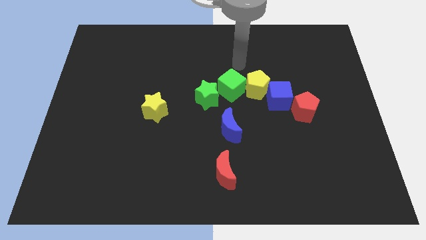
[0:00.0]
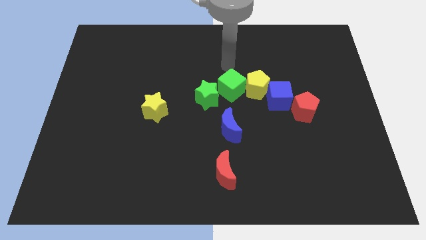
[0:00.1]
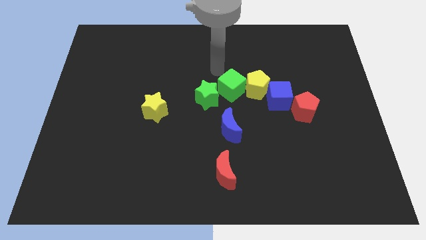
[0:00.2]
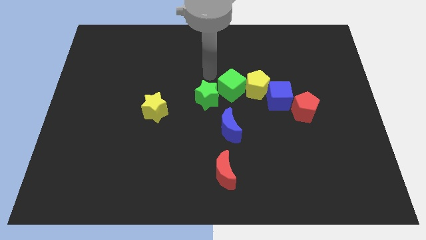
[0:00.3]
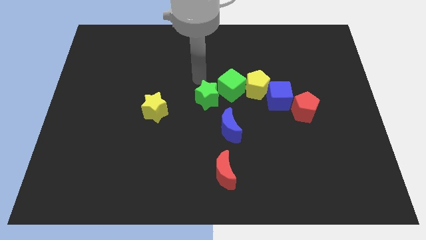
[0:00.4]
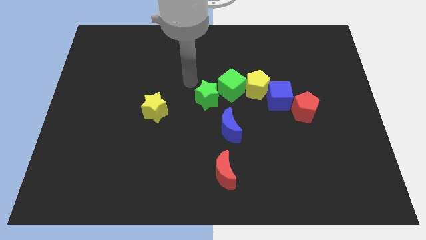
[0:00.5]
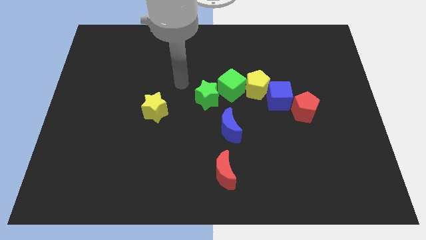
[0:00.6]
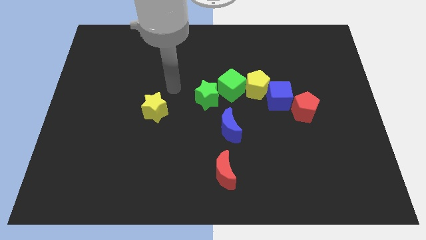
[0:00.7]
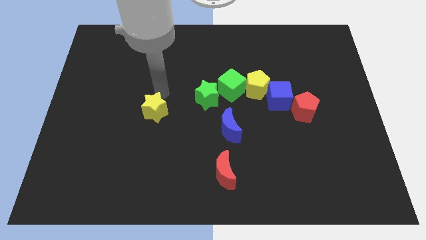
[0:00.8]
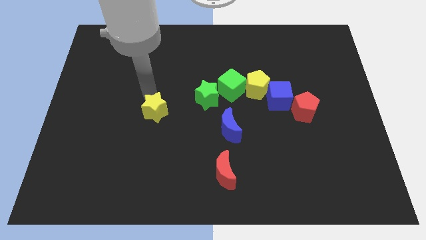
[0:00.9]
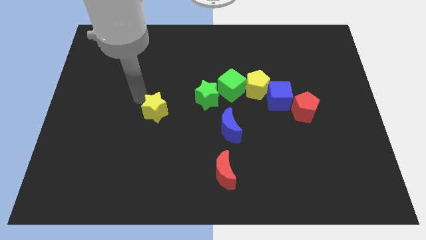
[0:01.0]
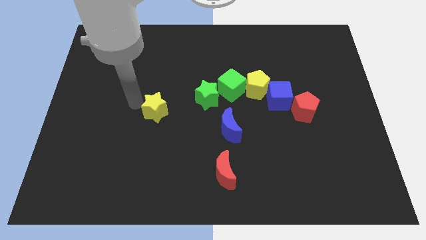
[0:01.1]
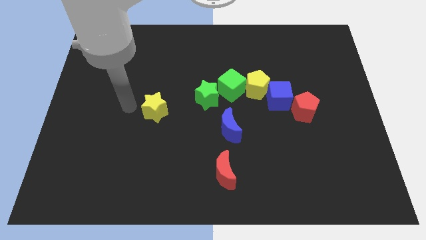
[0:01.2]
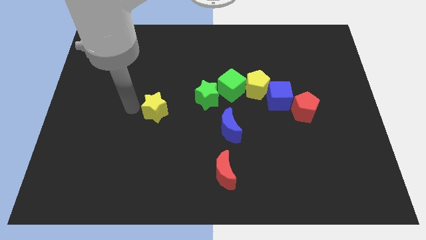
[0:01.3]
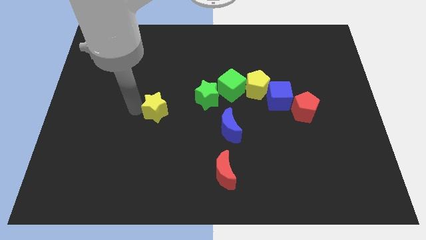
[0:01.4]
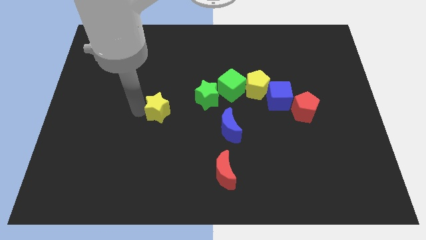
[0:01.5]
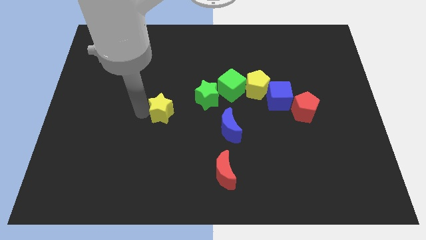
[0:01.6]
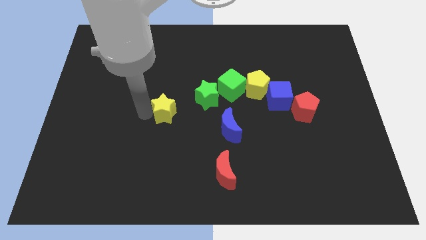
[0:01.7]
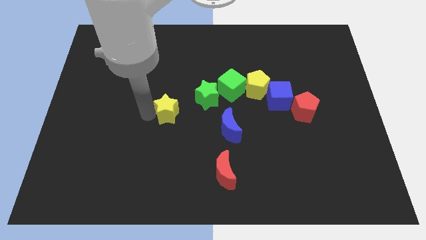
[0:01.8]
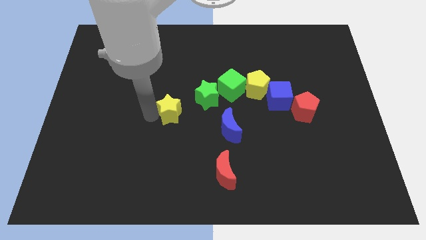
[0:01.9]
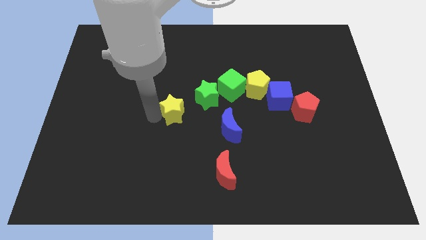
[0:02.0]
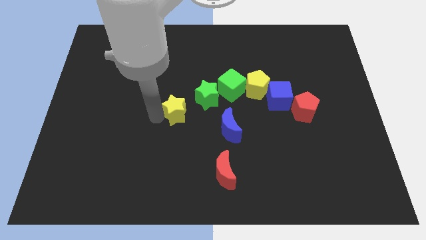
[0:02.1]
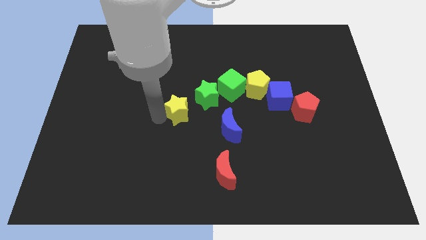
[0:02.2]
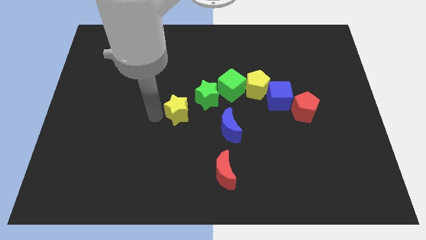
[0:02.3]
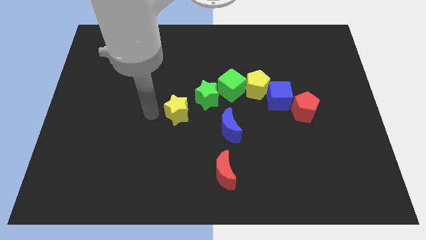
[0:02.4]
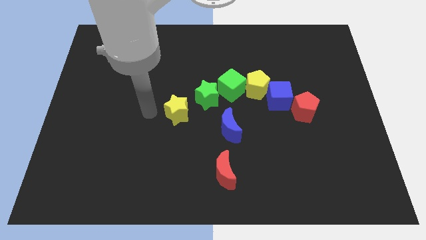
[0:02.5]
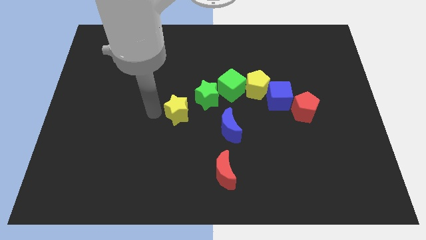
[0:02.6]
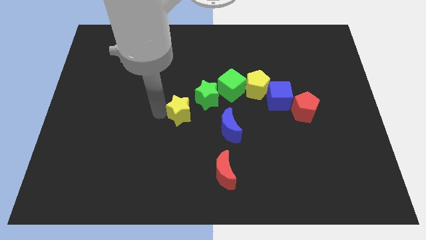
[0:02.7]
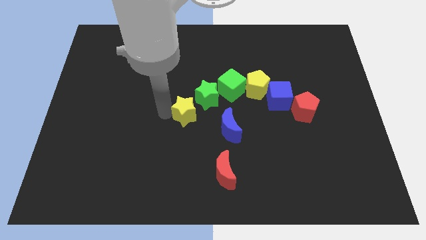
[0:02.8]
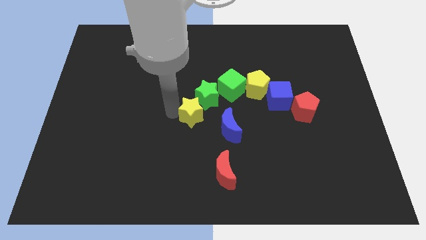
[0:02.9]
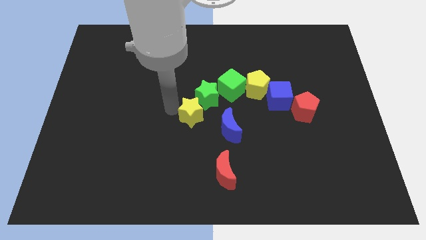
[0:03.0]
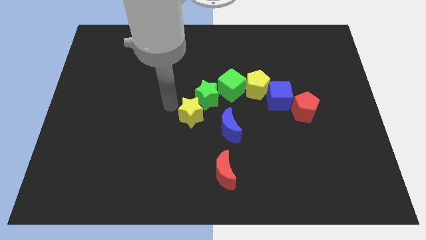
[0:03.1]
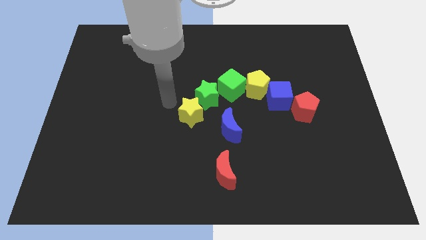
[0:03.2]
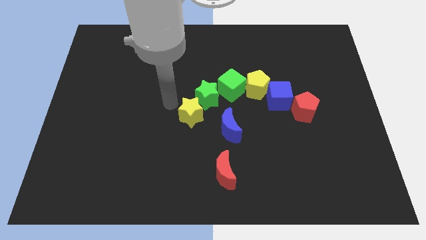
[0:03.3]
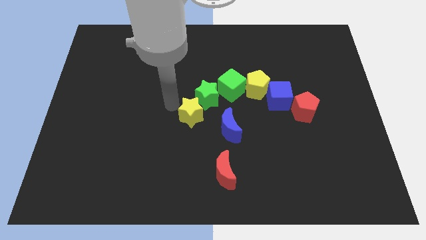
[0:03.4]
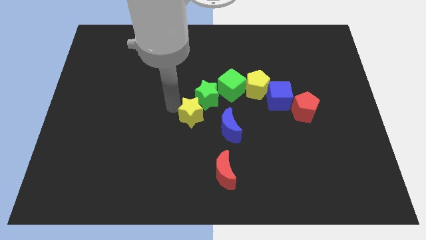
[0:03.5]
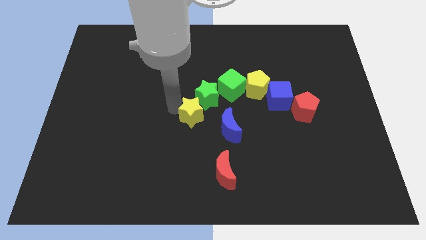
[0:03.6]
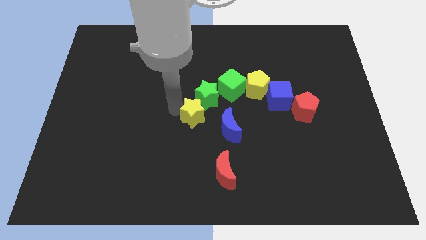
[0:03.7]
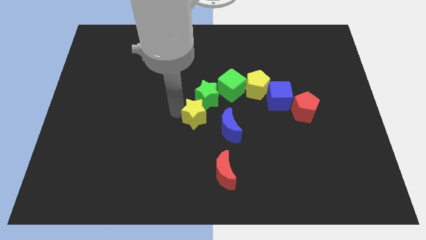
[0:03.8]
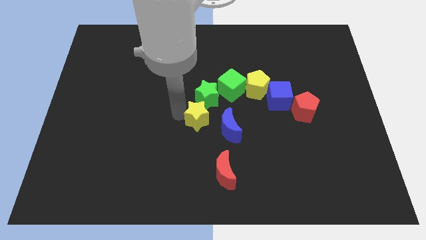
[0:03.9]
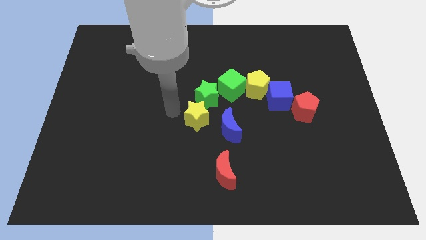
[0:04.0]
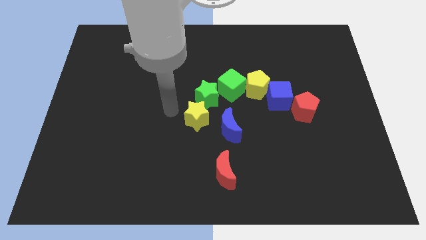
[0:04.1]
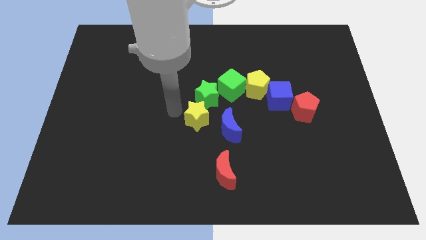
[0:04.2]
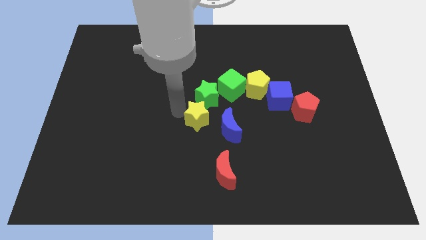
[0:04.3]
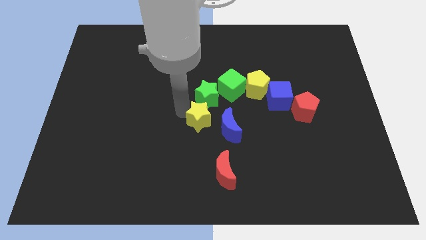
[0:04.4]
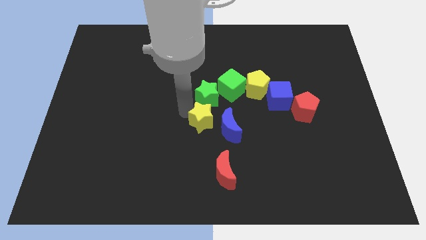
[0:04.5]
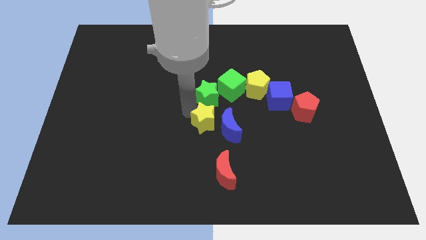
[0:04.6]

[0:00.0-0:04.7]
move the yellow star to the blue moon

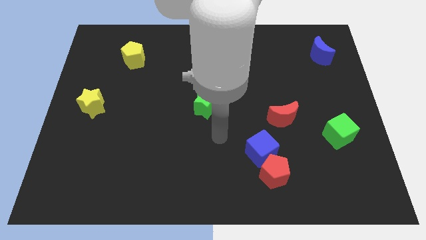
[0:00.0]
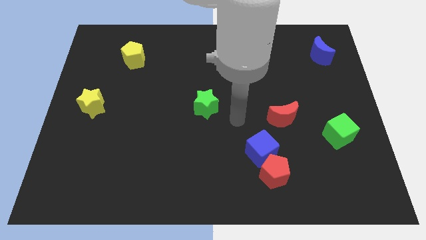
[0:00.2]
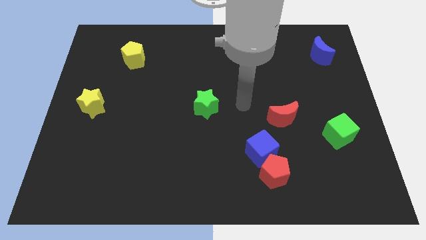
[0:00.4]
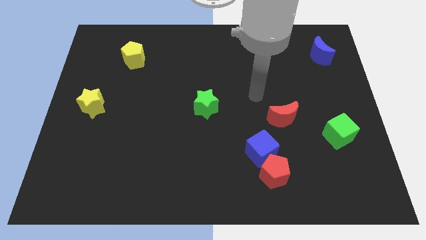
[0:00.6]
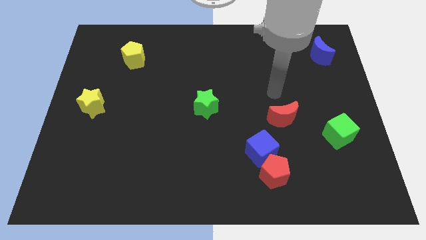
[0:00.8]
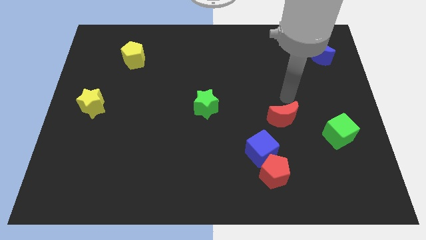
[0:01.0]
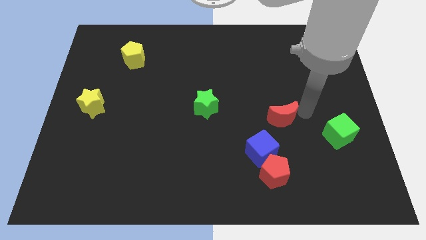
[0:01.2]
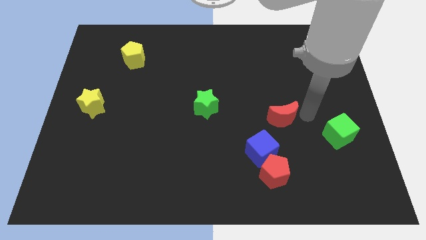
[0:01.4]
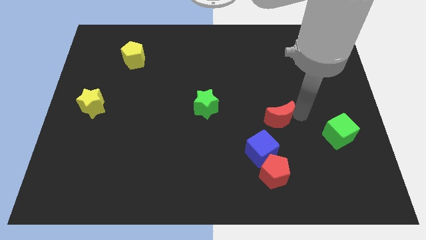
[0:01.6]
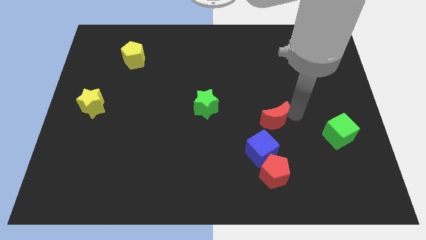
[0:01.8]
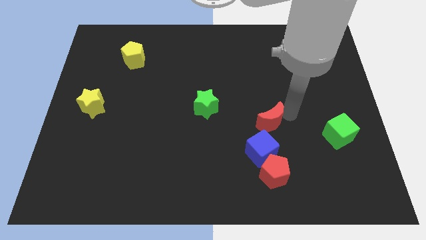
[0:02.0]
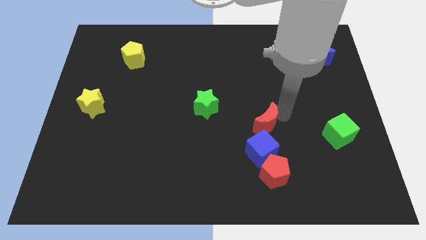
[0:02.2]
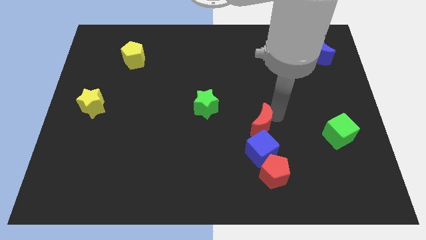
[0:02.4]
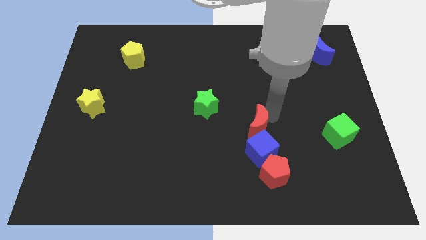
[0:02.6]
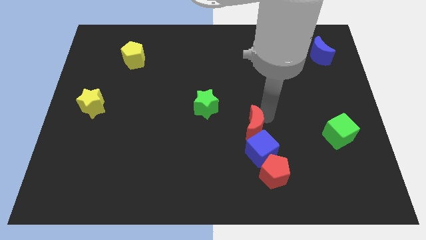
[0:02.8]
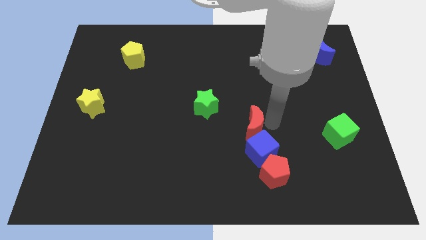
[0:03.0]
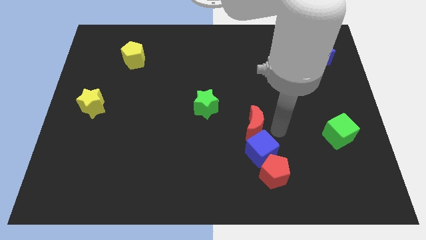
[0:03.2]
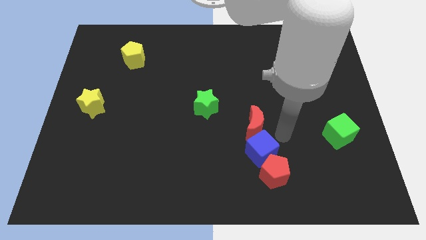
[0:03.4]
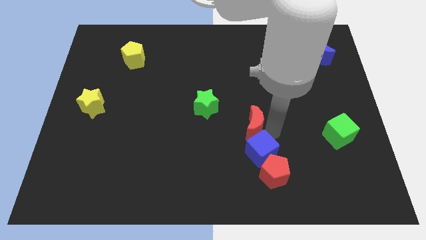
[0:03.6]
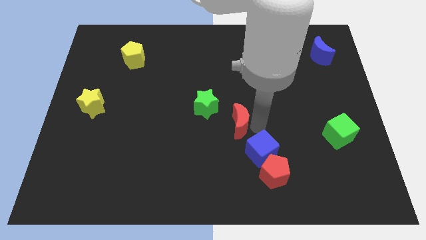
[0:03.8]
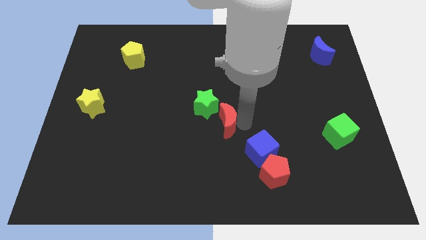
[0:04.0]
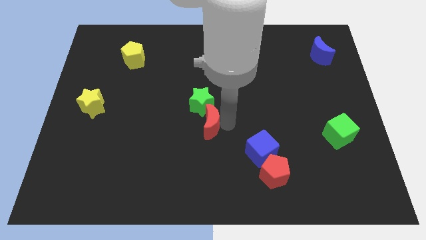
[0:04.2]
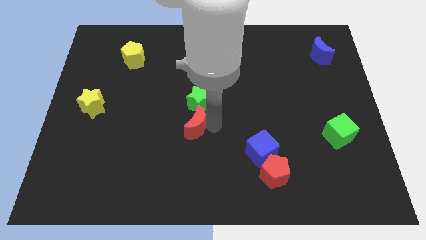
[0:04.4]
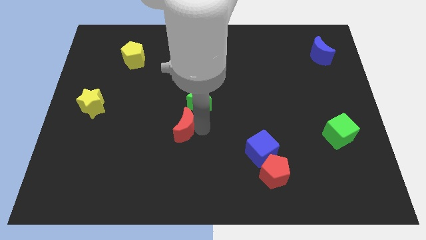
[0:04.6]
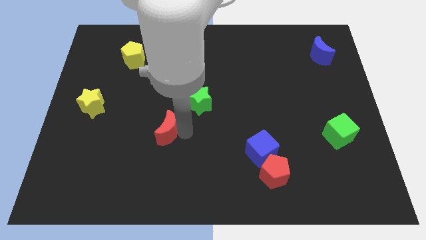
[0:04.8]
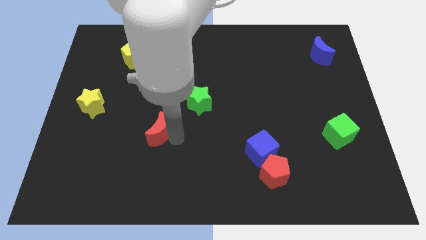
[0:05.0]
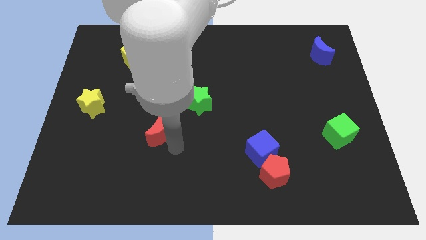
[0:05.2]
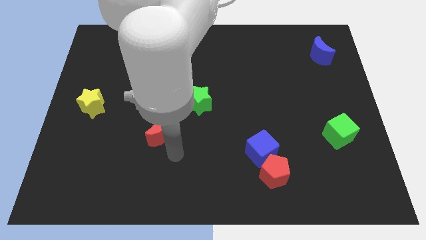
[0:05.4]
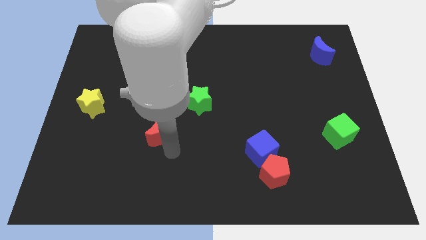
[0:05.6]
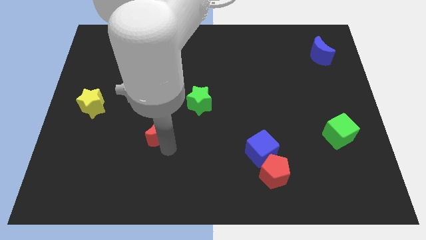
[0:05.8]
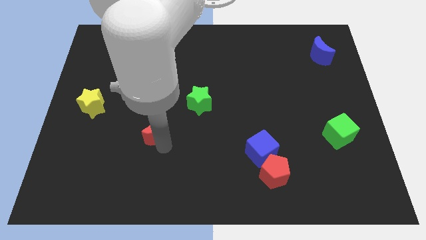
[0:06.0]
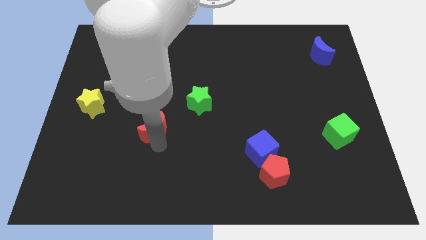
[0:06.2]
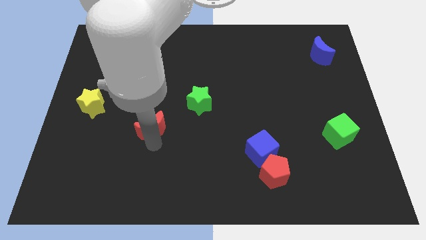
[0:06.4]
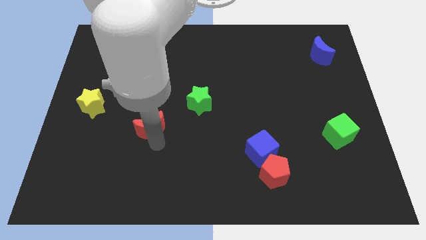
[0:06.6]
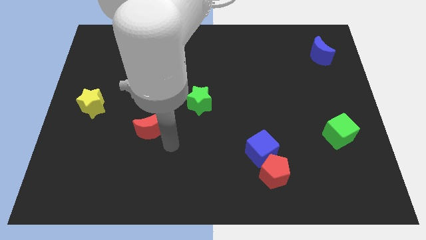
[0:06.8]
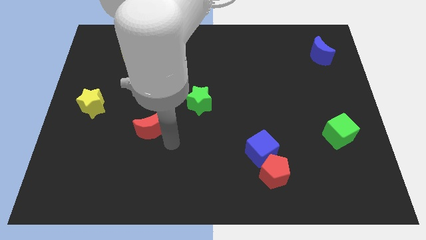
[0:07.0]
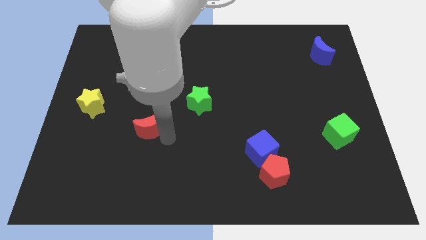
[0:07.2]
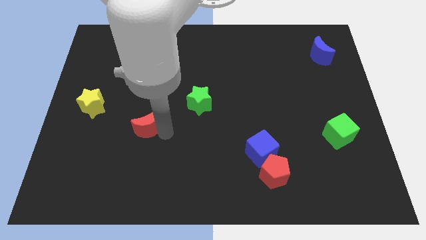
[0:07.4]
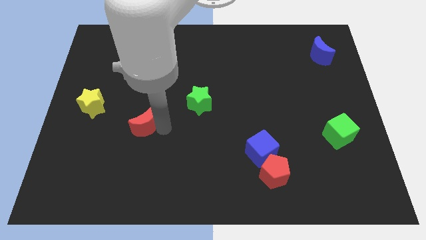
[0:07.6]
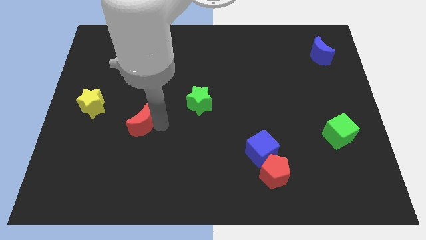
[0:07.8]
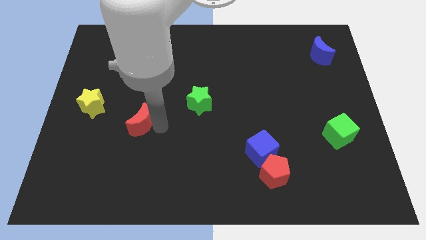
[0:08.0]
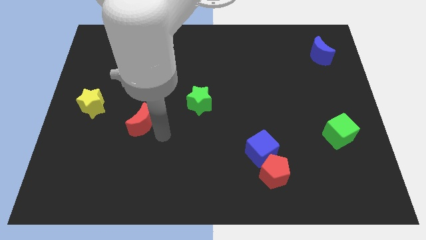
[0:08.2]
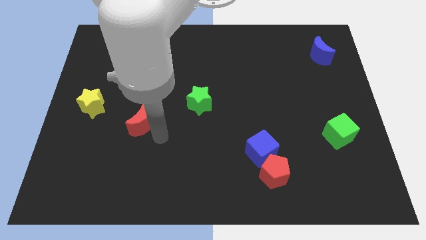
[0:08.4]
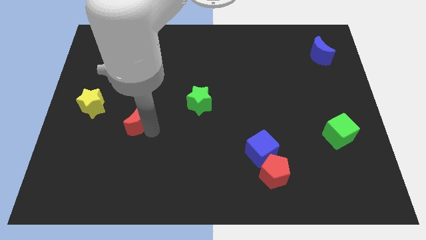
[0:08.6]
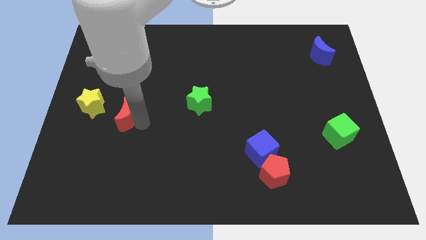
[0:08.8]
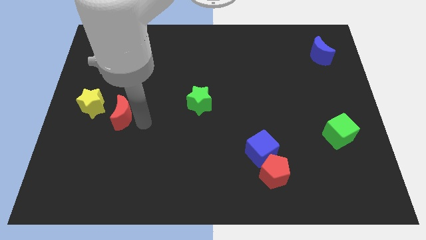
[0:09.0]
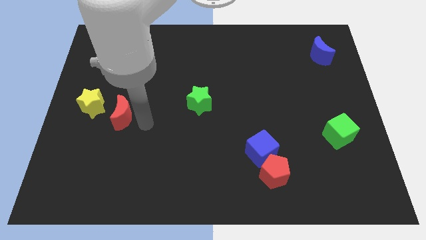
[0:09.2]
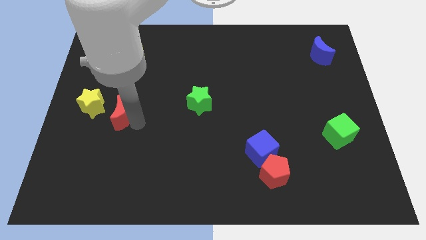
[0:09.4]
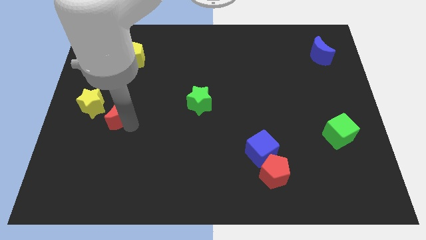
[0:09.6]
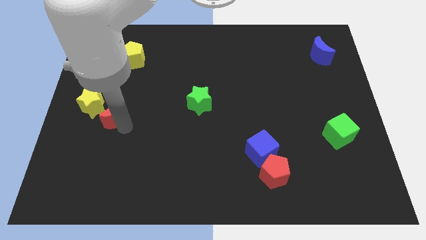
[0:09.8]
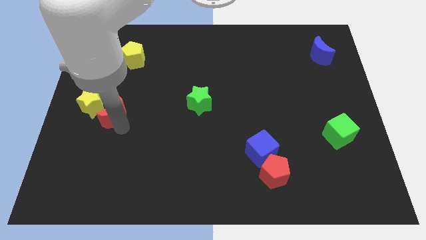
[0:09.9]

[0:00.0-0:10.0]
put the red moon close to the yellow star
